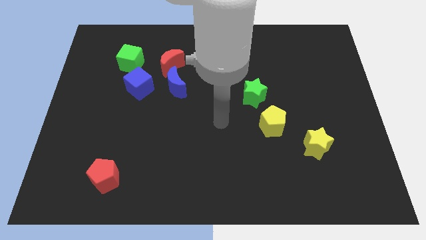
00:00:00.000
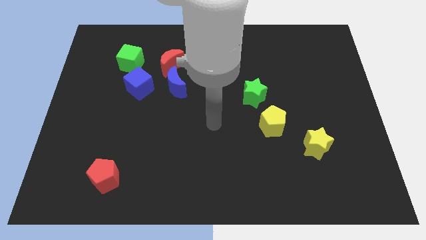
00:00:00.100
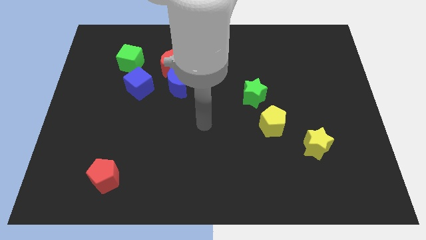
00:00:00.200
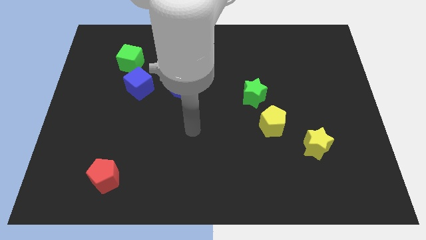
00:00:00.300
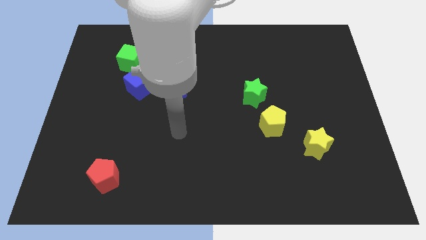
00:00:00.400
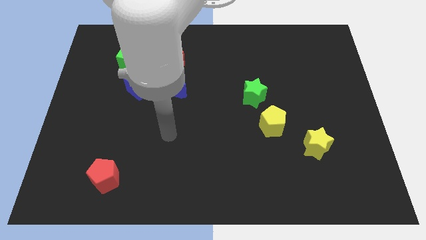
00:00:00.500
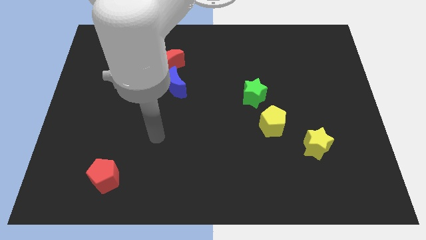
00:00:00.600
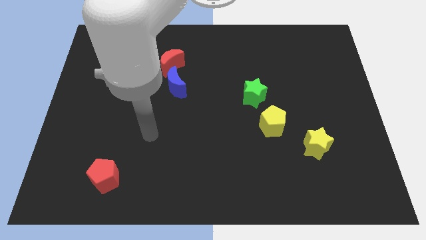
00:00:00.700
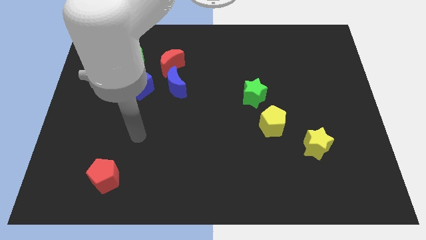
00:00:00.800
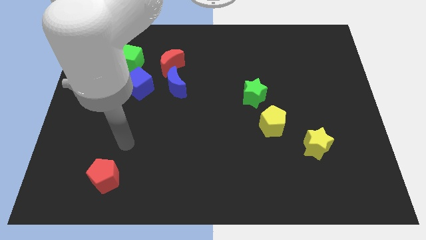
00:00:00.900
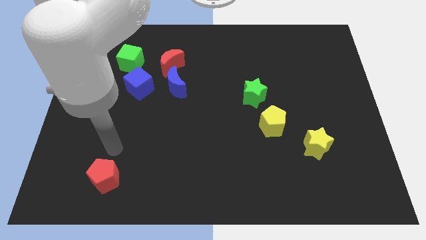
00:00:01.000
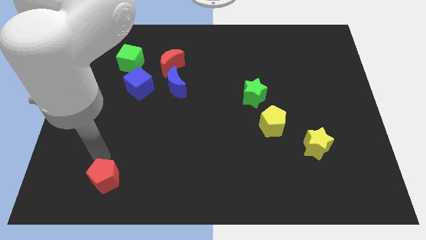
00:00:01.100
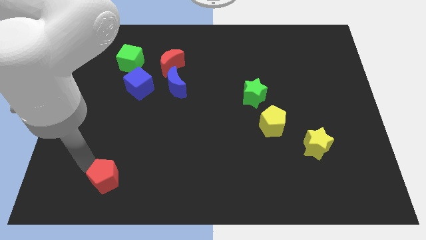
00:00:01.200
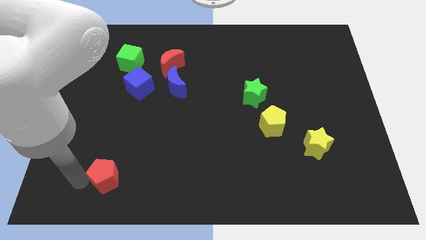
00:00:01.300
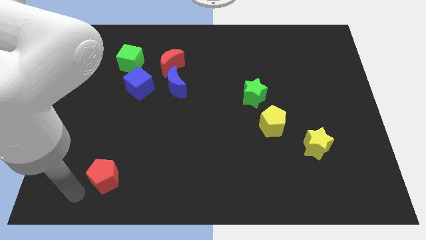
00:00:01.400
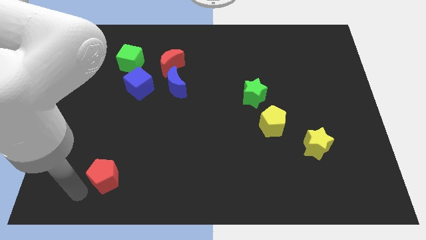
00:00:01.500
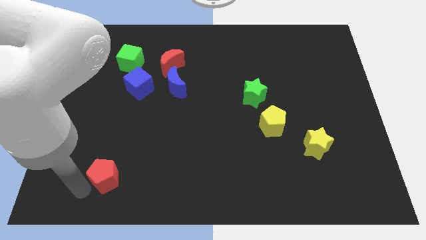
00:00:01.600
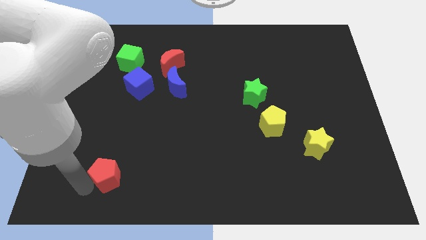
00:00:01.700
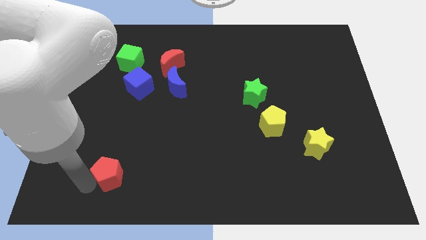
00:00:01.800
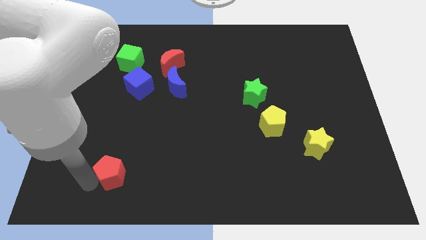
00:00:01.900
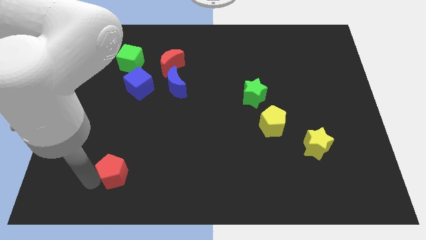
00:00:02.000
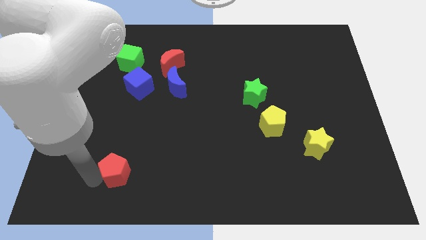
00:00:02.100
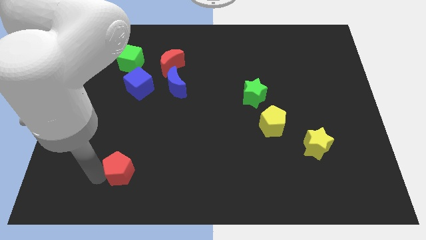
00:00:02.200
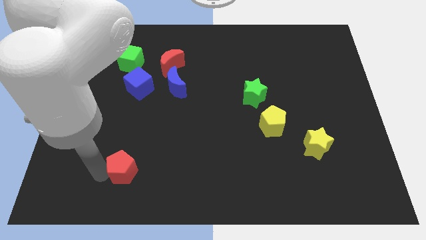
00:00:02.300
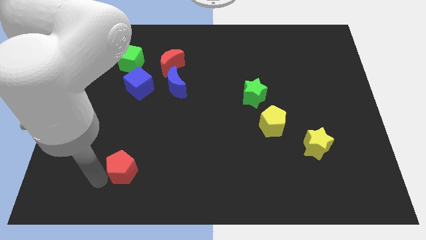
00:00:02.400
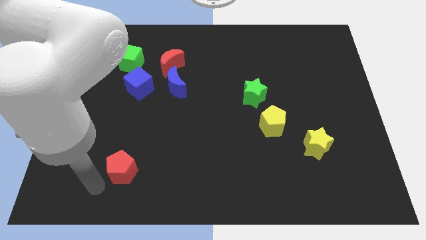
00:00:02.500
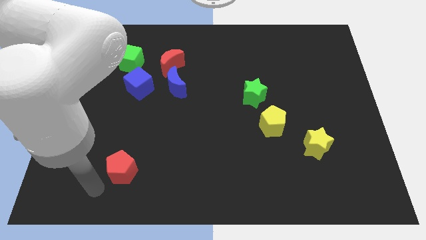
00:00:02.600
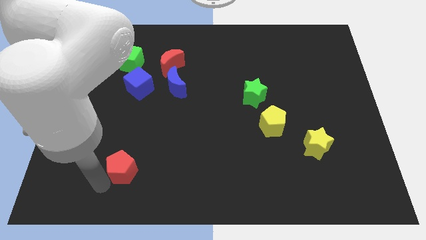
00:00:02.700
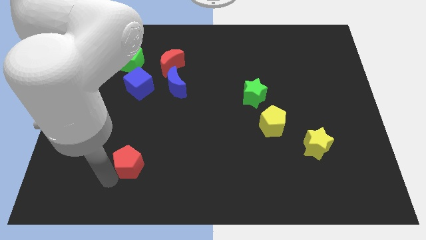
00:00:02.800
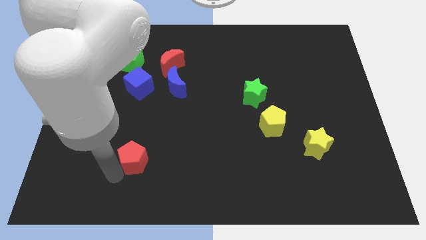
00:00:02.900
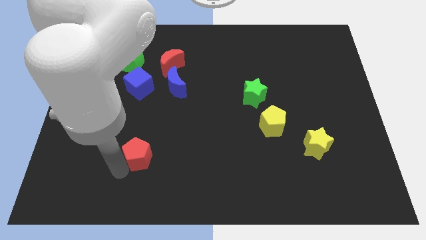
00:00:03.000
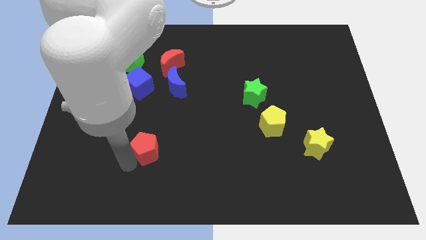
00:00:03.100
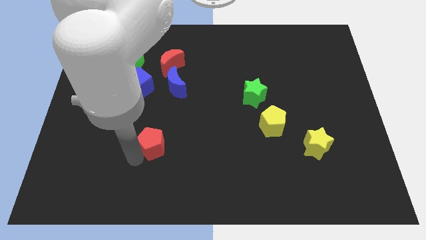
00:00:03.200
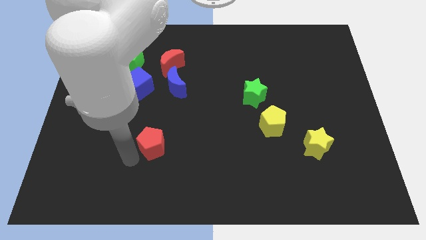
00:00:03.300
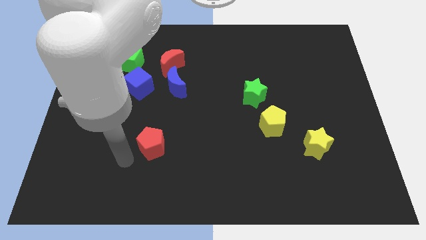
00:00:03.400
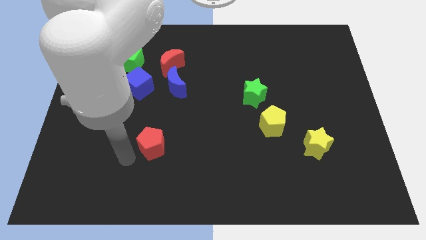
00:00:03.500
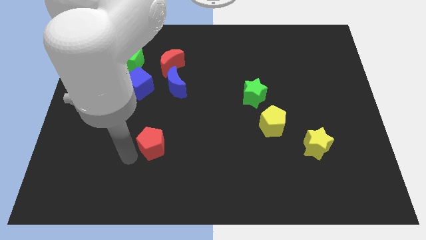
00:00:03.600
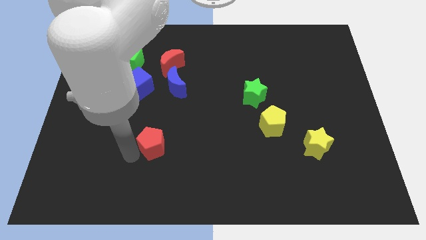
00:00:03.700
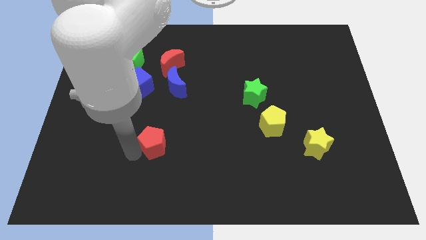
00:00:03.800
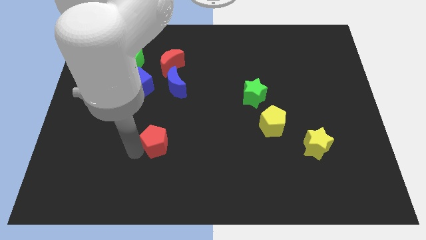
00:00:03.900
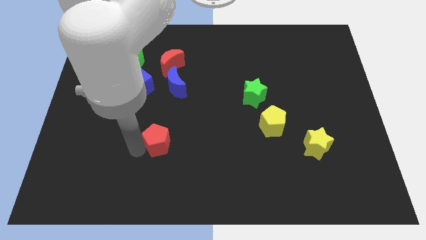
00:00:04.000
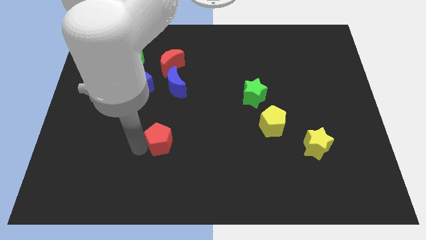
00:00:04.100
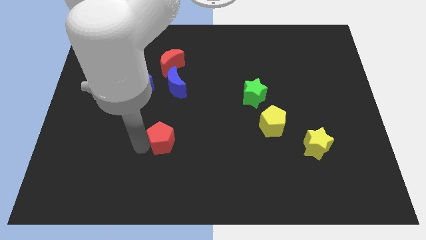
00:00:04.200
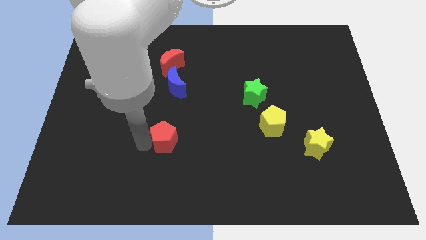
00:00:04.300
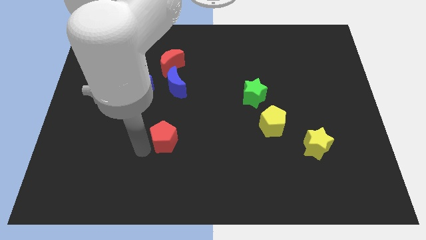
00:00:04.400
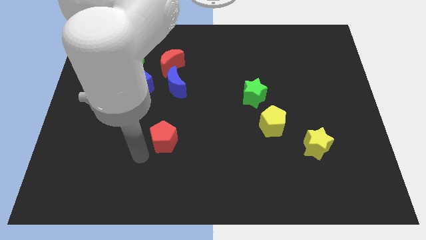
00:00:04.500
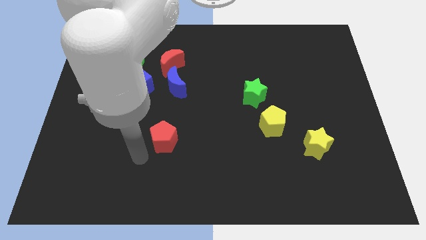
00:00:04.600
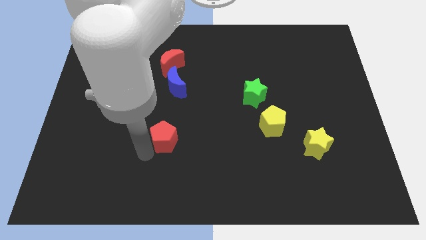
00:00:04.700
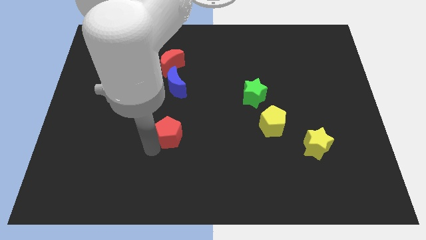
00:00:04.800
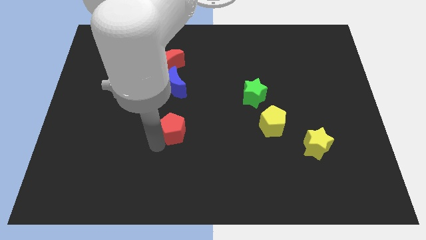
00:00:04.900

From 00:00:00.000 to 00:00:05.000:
move the red pentagon to the center of the board

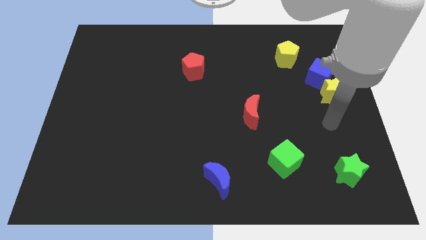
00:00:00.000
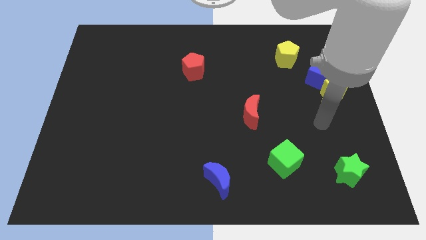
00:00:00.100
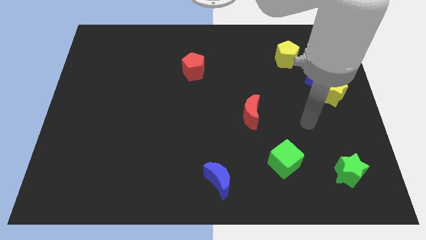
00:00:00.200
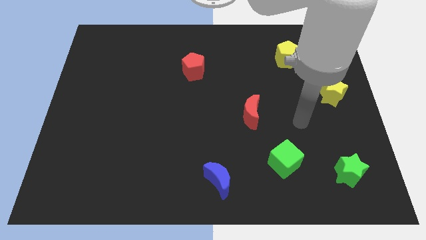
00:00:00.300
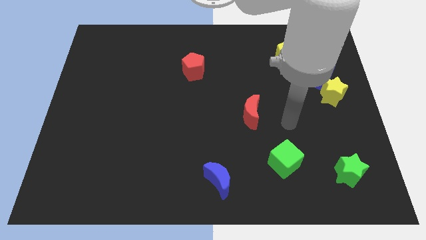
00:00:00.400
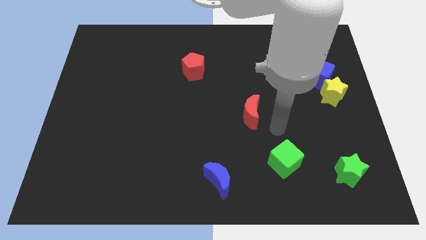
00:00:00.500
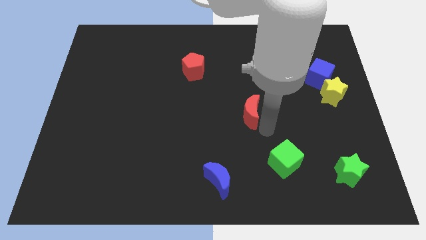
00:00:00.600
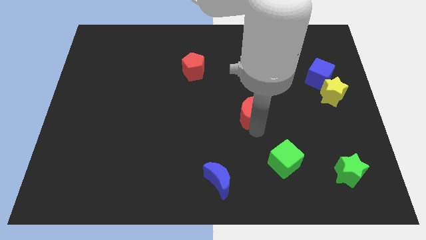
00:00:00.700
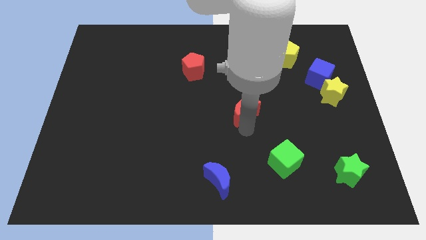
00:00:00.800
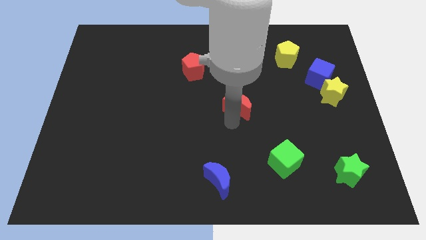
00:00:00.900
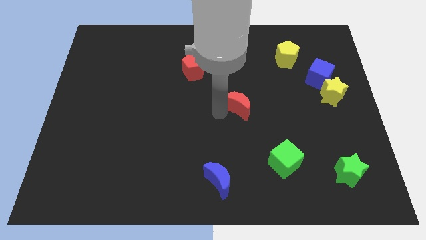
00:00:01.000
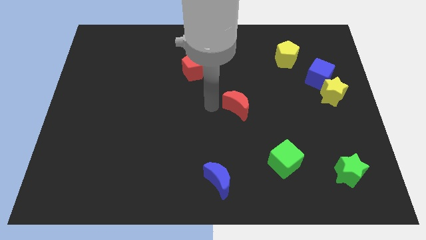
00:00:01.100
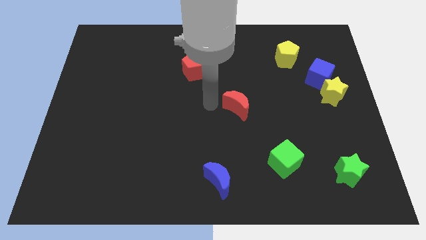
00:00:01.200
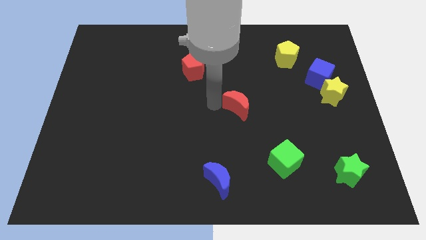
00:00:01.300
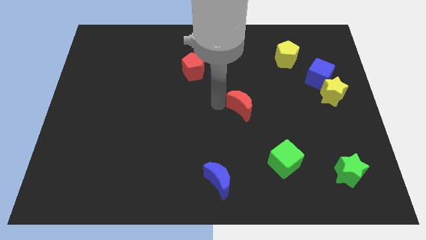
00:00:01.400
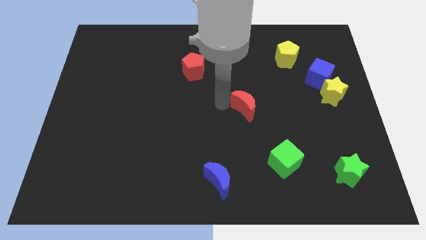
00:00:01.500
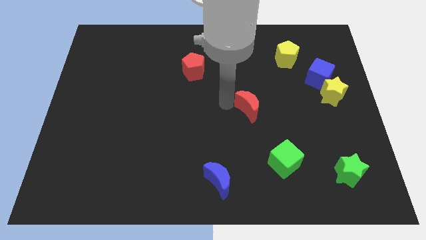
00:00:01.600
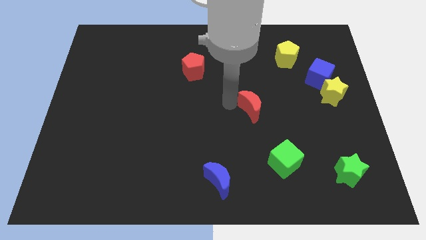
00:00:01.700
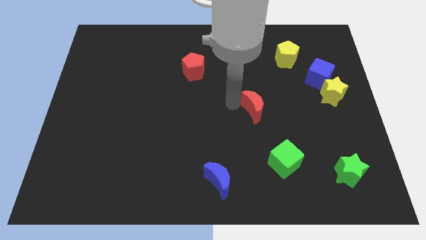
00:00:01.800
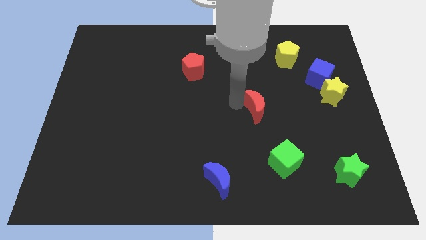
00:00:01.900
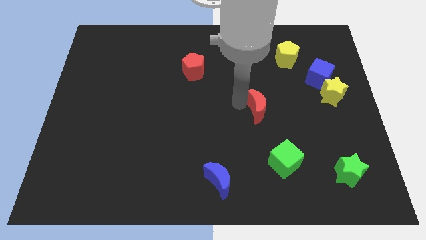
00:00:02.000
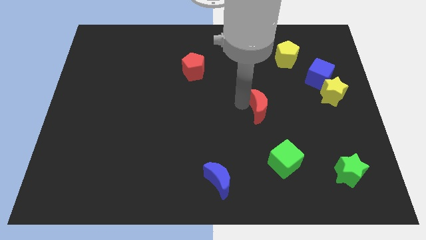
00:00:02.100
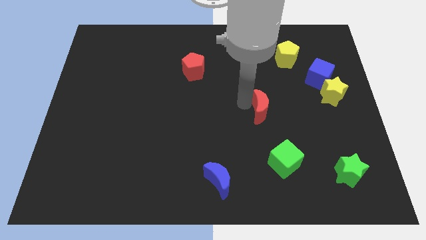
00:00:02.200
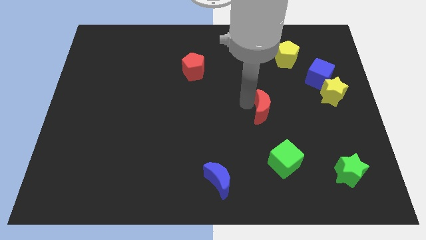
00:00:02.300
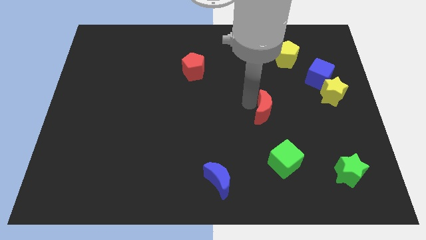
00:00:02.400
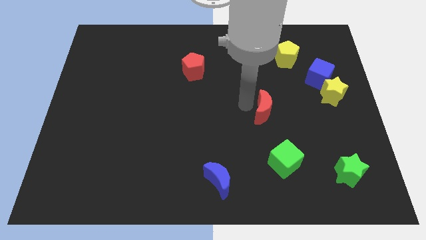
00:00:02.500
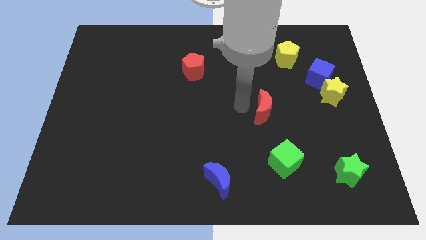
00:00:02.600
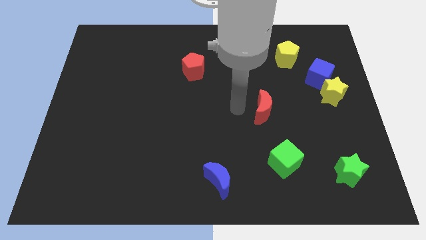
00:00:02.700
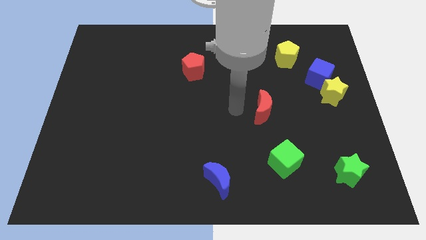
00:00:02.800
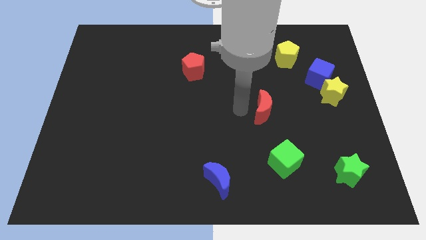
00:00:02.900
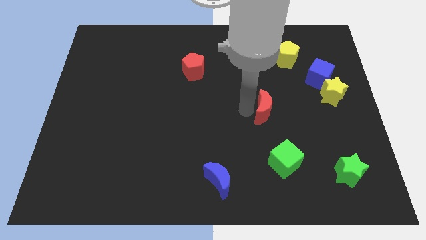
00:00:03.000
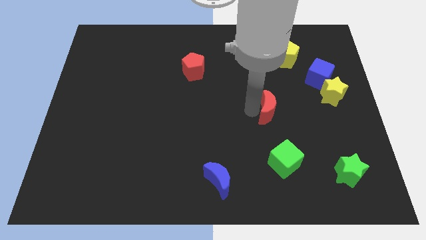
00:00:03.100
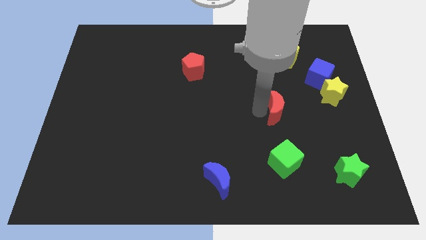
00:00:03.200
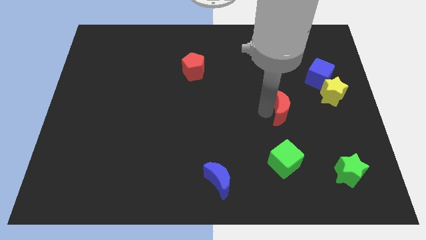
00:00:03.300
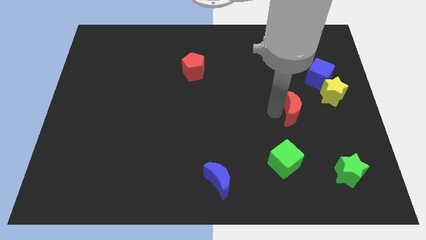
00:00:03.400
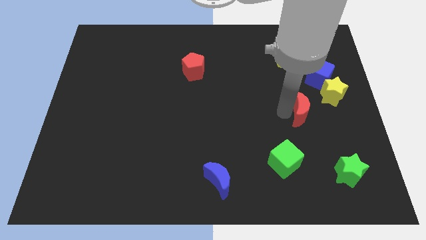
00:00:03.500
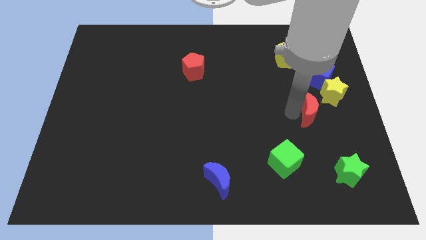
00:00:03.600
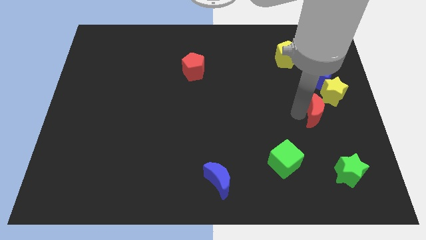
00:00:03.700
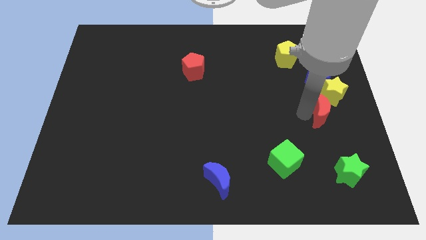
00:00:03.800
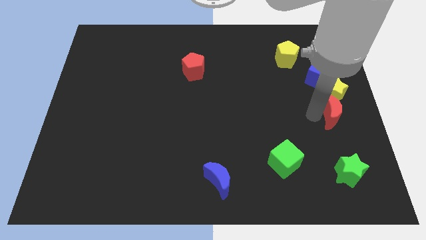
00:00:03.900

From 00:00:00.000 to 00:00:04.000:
put the red moon to the right side
